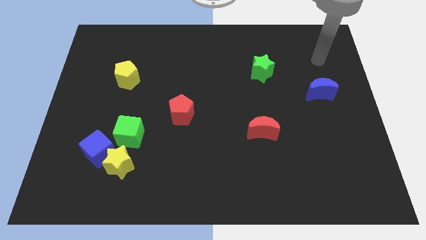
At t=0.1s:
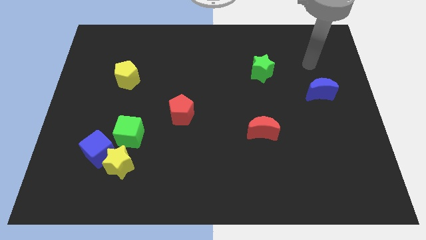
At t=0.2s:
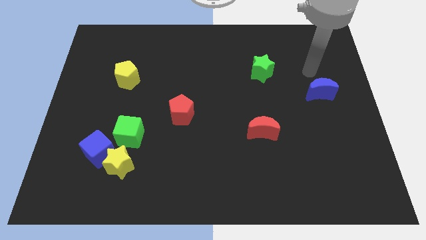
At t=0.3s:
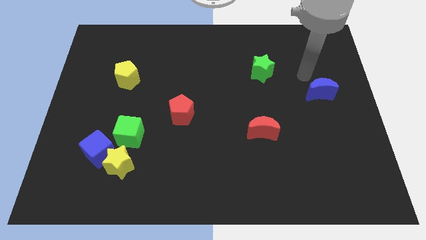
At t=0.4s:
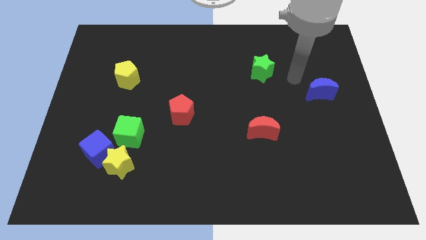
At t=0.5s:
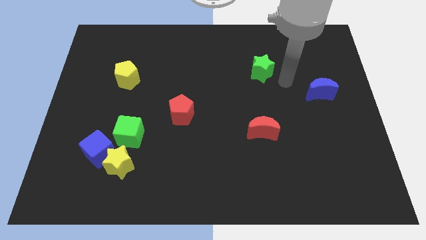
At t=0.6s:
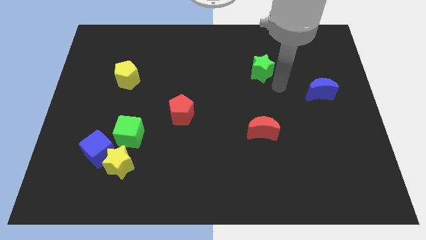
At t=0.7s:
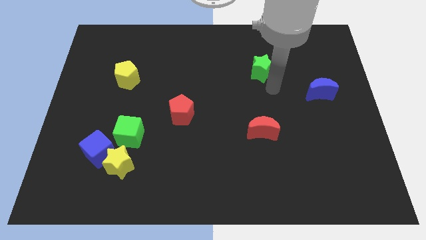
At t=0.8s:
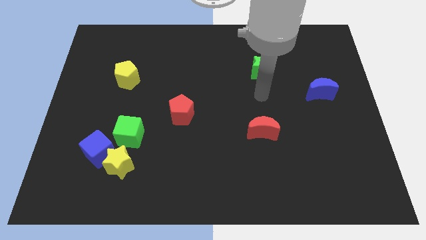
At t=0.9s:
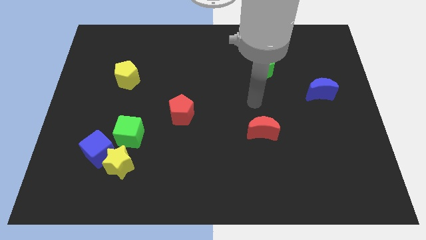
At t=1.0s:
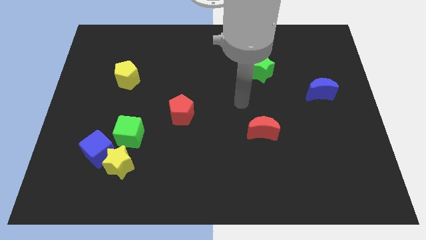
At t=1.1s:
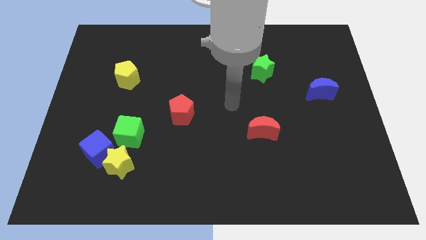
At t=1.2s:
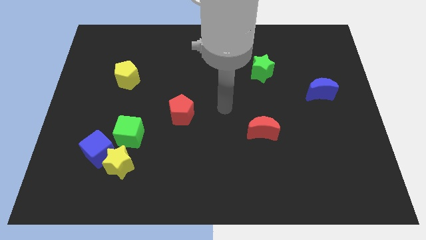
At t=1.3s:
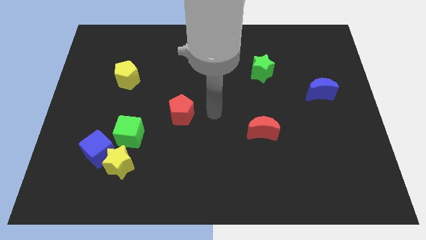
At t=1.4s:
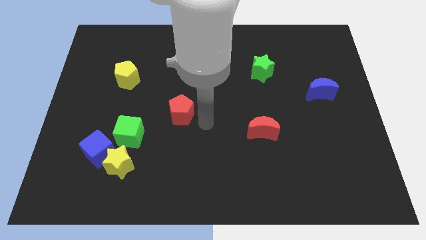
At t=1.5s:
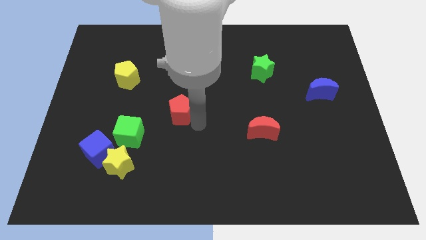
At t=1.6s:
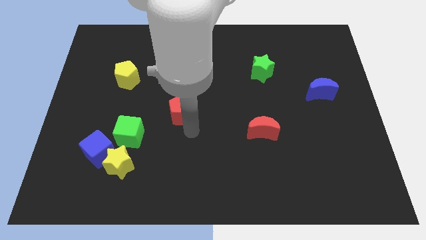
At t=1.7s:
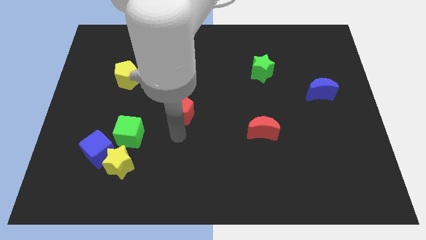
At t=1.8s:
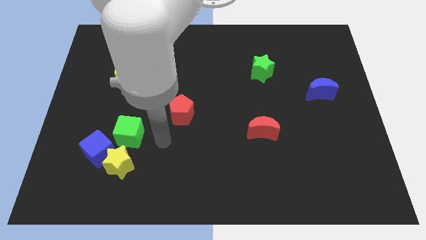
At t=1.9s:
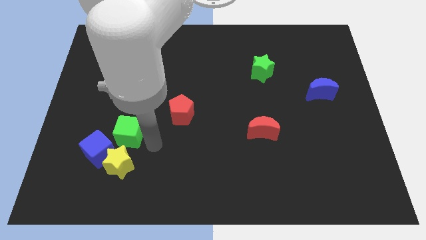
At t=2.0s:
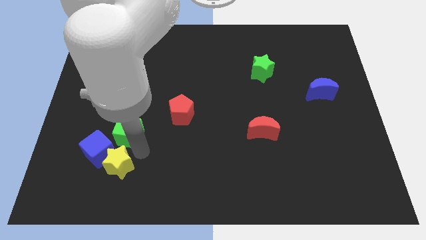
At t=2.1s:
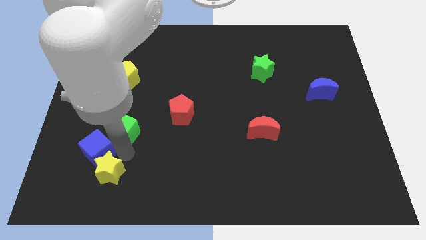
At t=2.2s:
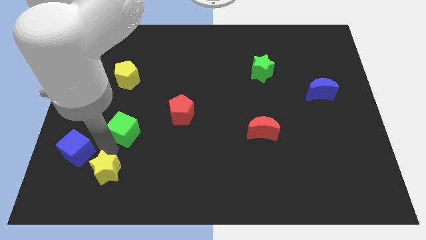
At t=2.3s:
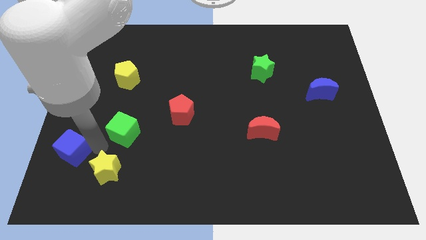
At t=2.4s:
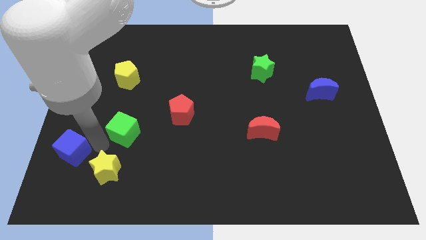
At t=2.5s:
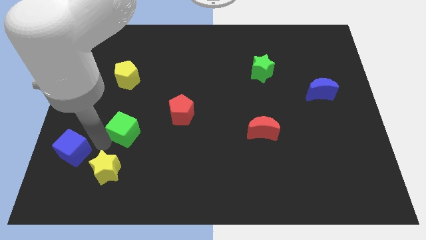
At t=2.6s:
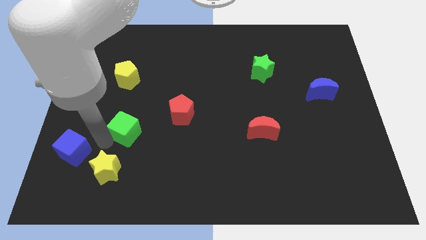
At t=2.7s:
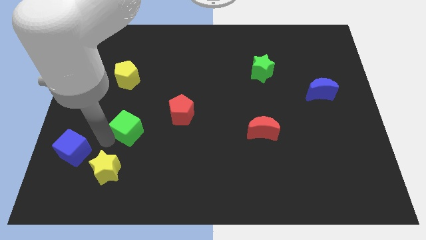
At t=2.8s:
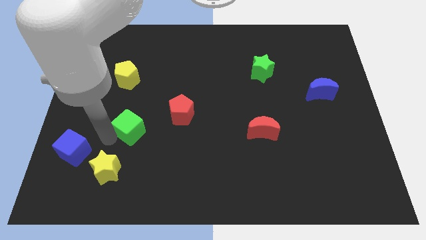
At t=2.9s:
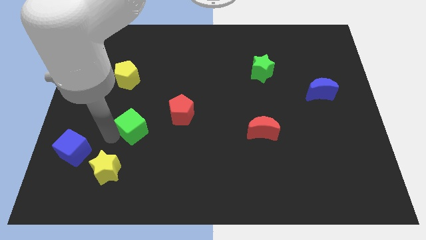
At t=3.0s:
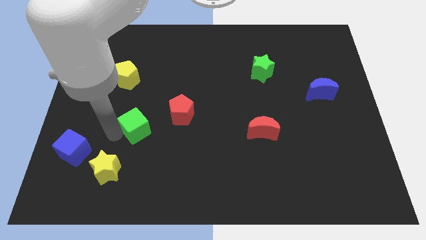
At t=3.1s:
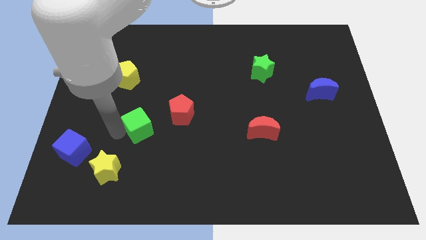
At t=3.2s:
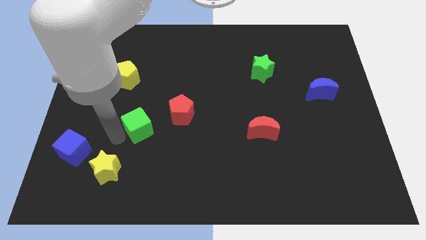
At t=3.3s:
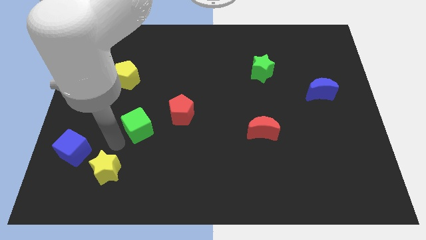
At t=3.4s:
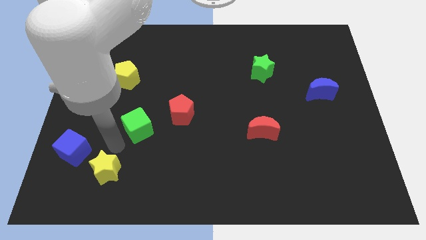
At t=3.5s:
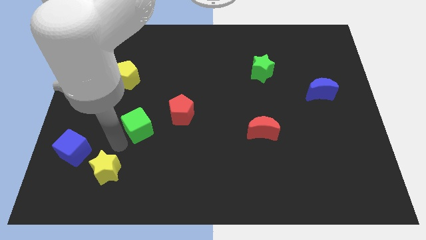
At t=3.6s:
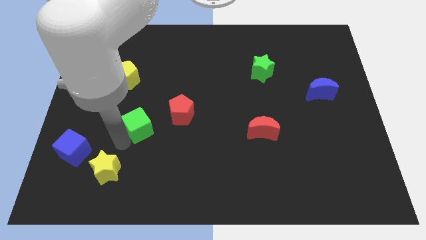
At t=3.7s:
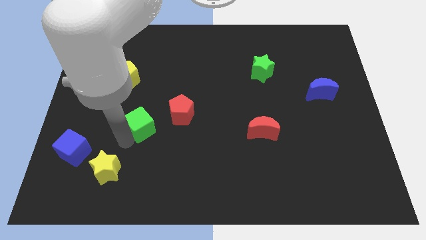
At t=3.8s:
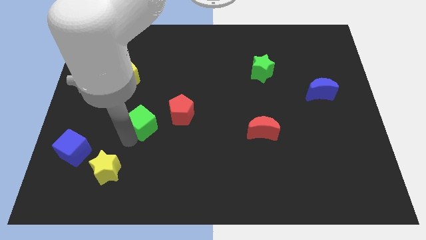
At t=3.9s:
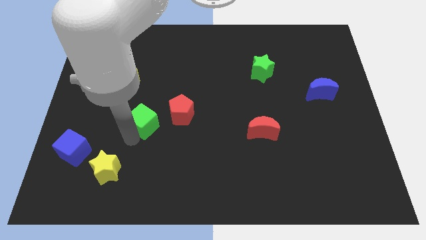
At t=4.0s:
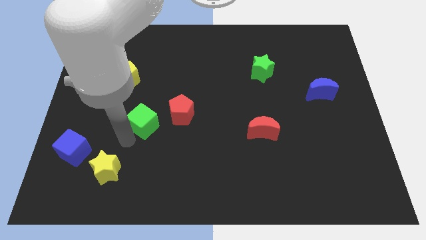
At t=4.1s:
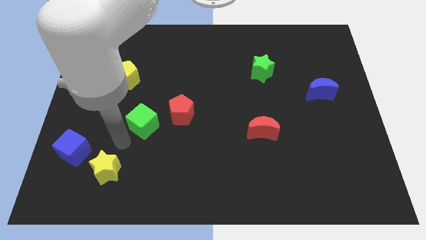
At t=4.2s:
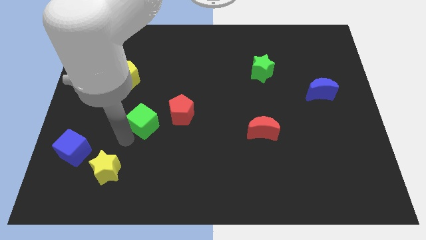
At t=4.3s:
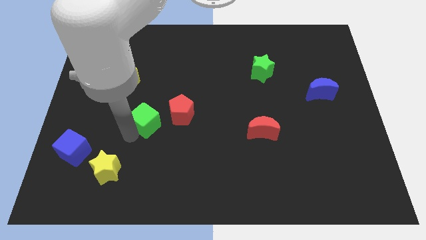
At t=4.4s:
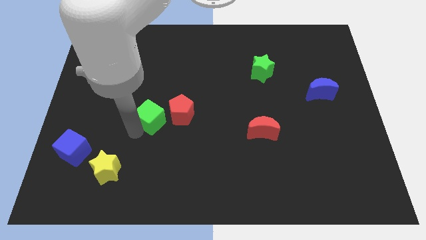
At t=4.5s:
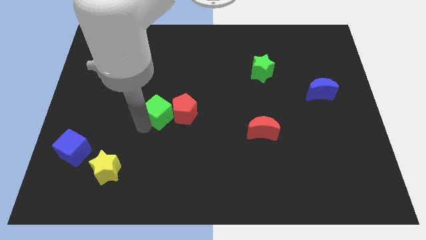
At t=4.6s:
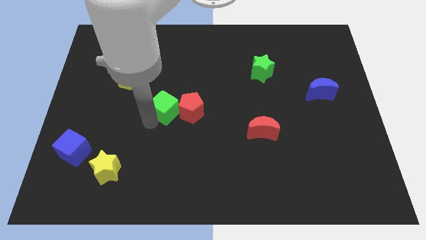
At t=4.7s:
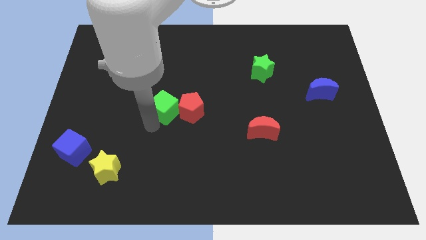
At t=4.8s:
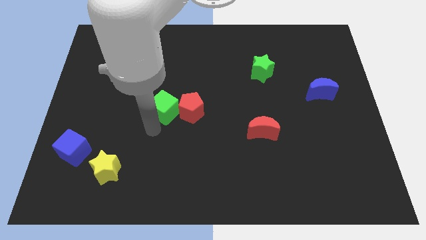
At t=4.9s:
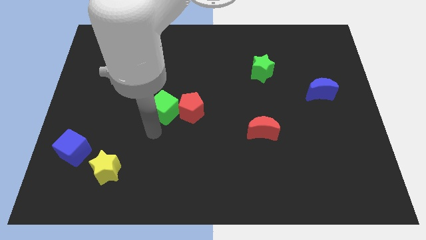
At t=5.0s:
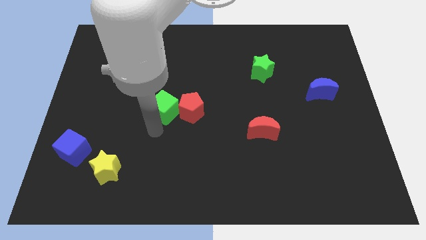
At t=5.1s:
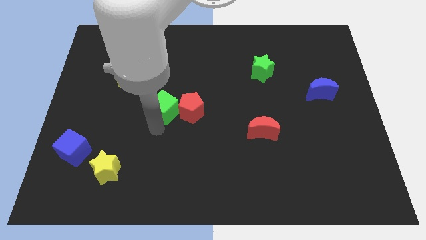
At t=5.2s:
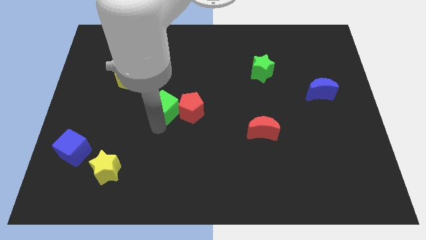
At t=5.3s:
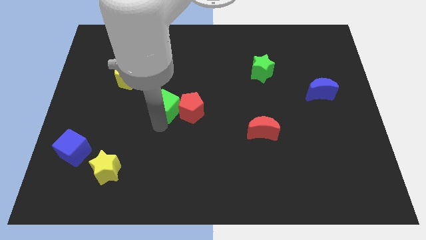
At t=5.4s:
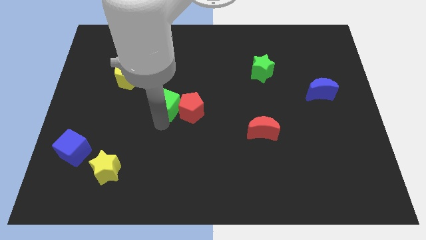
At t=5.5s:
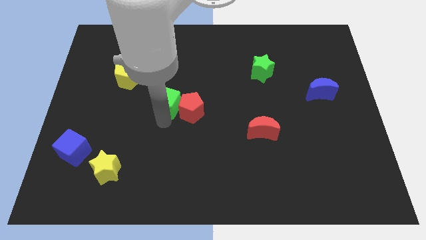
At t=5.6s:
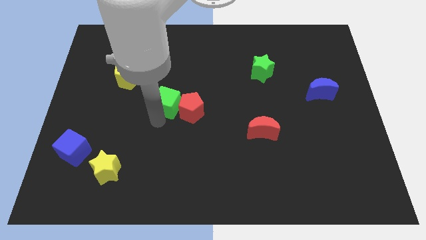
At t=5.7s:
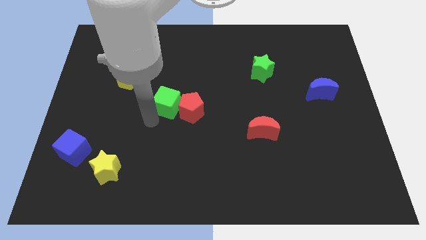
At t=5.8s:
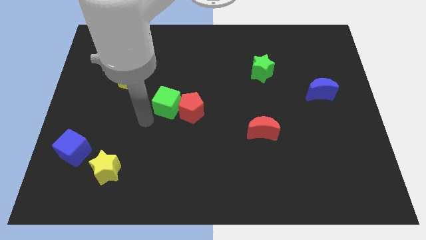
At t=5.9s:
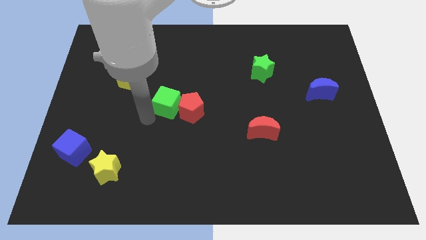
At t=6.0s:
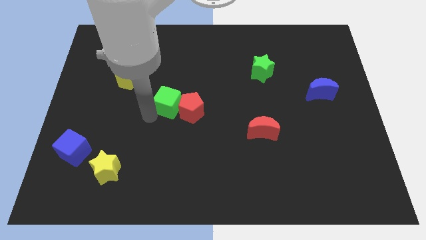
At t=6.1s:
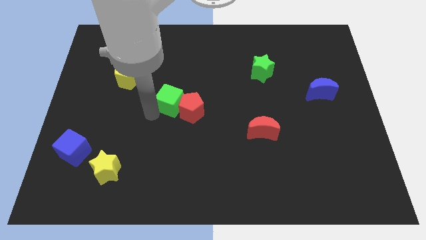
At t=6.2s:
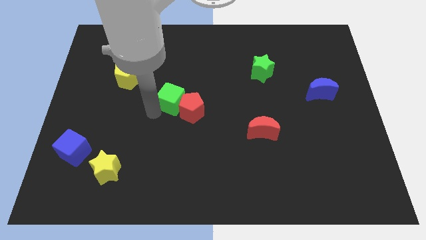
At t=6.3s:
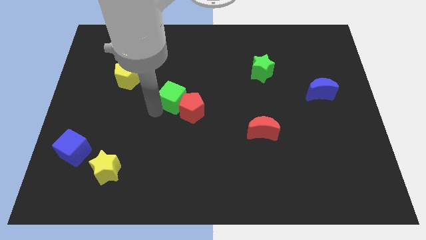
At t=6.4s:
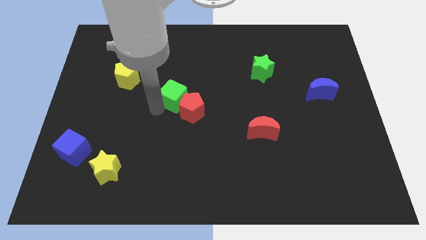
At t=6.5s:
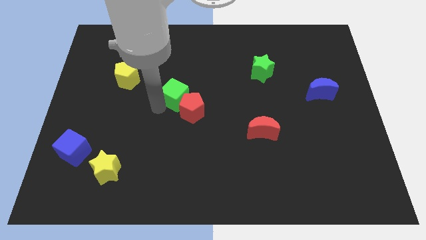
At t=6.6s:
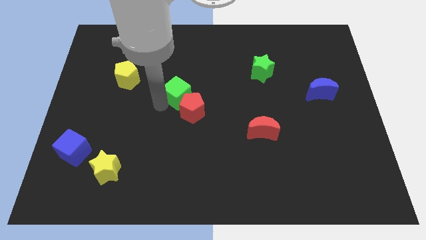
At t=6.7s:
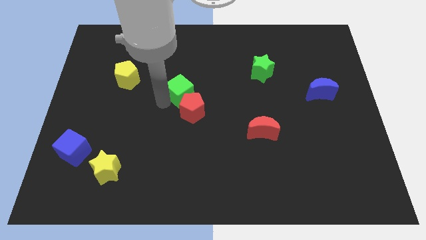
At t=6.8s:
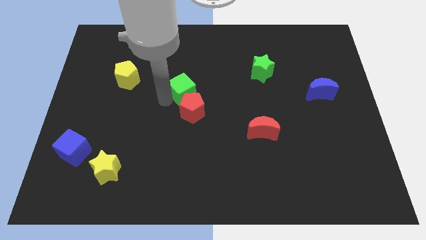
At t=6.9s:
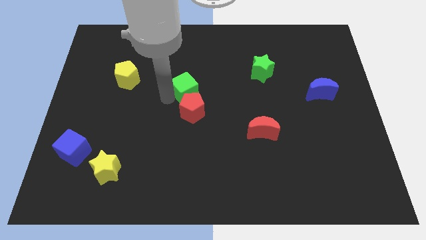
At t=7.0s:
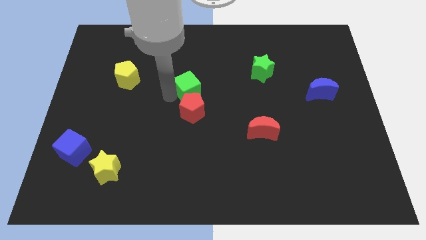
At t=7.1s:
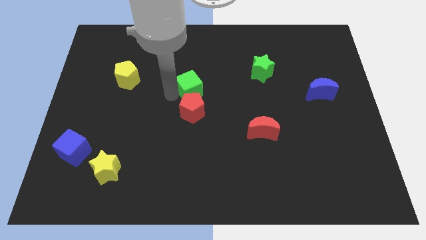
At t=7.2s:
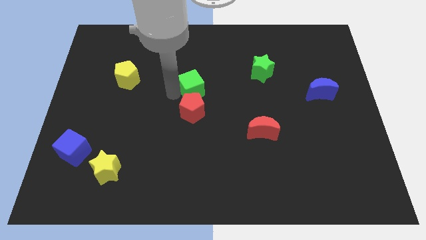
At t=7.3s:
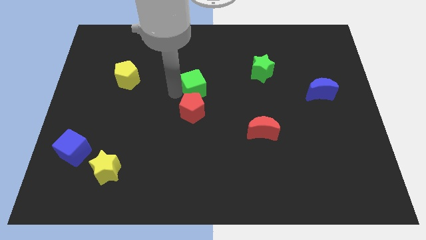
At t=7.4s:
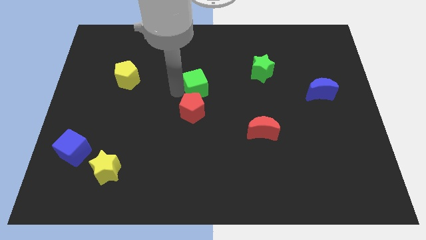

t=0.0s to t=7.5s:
push the green cube upwards and then to the right

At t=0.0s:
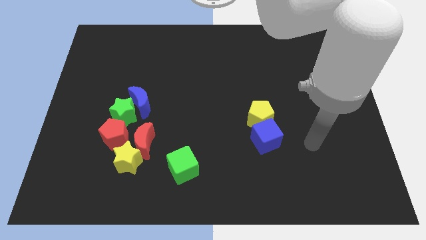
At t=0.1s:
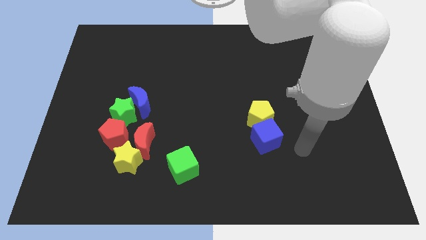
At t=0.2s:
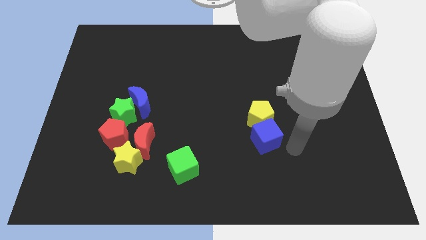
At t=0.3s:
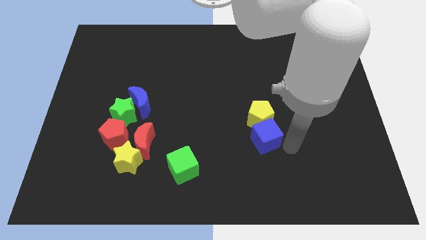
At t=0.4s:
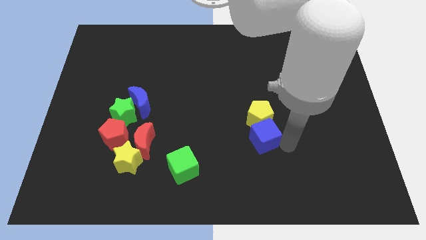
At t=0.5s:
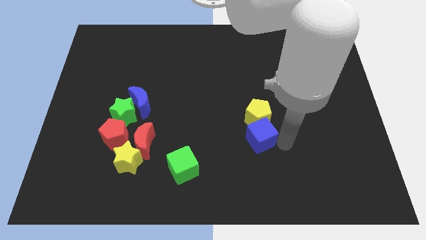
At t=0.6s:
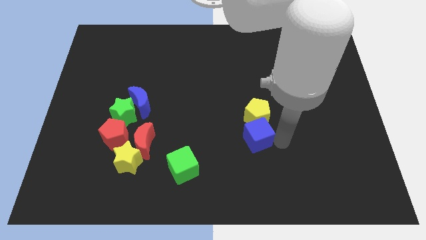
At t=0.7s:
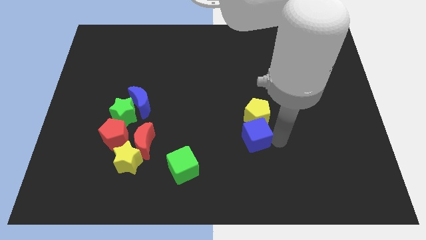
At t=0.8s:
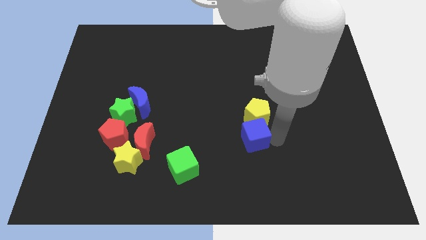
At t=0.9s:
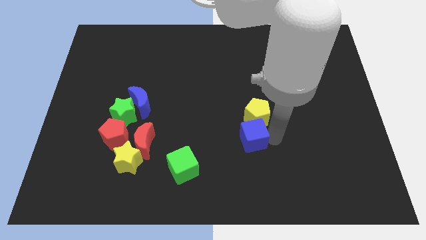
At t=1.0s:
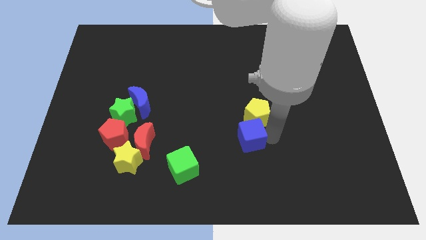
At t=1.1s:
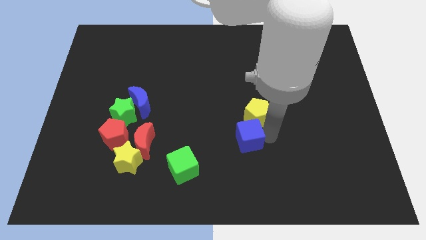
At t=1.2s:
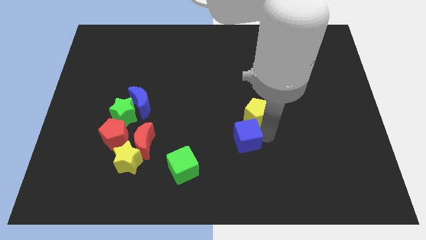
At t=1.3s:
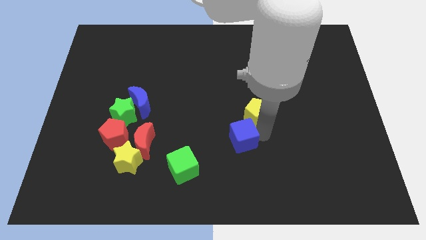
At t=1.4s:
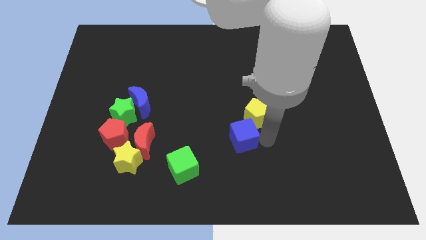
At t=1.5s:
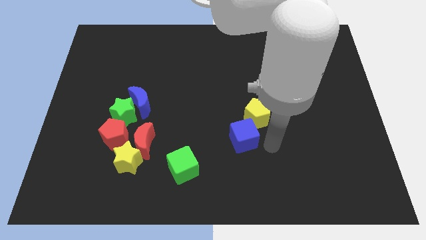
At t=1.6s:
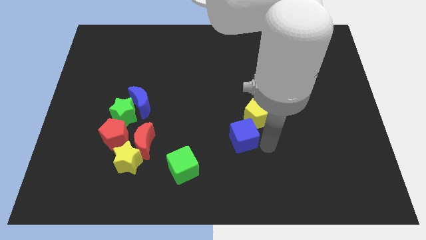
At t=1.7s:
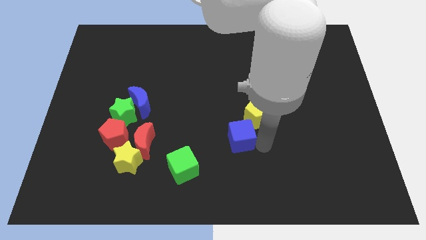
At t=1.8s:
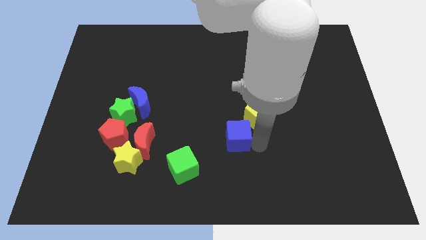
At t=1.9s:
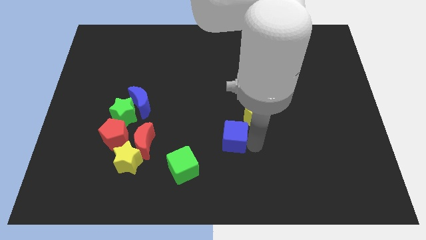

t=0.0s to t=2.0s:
move the blue cube slightly to the left
